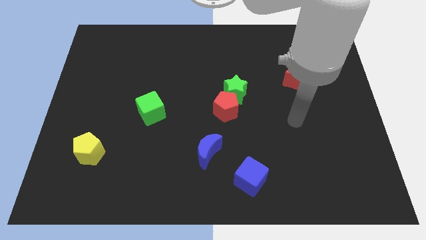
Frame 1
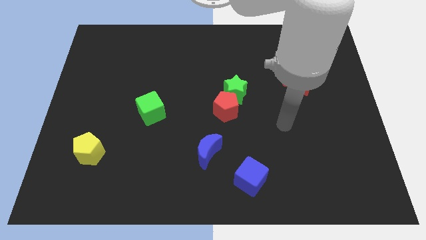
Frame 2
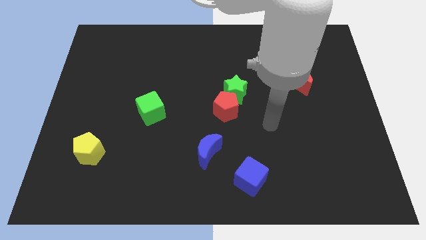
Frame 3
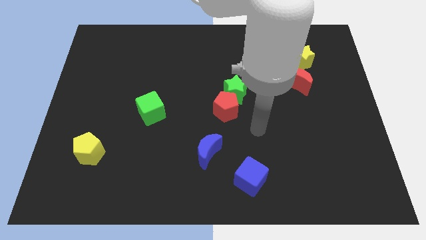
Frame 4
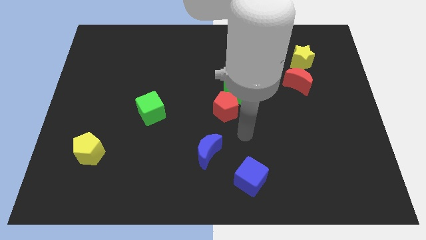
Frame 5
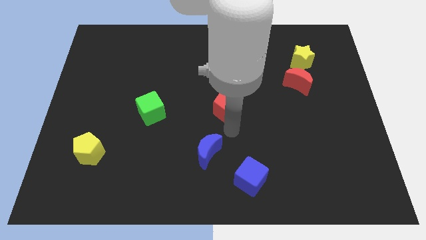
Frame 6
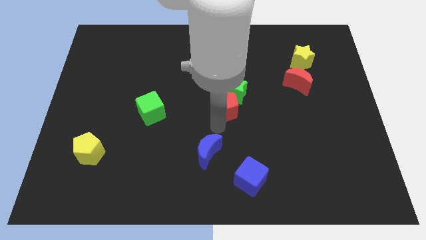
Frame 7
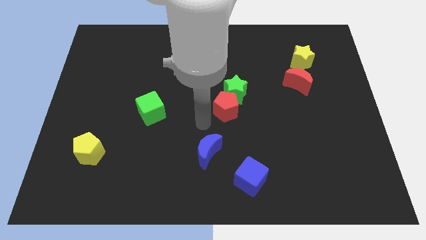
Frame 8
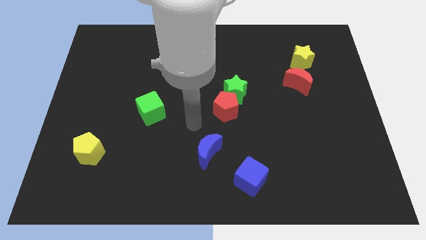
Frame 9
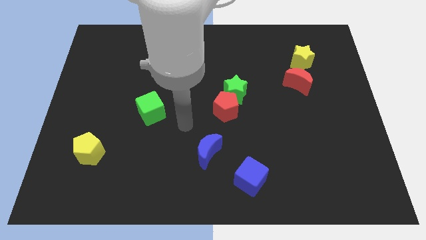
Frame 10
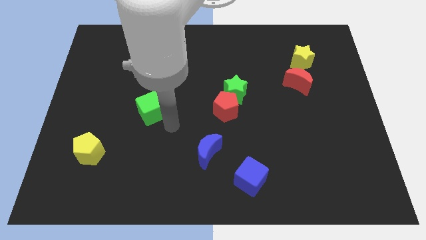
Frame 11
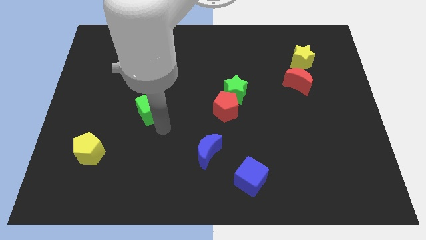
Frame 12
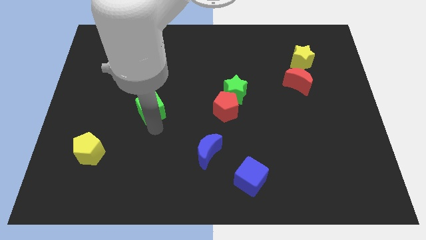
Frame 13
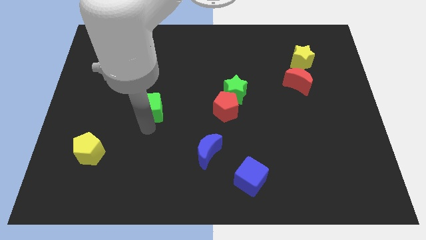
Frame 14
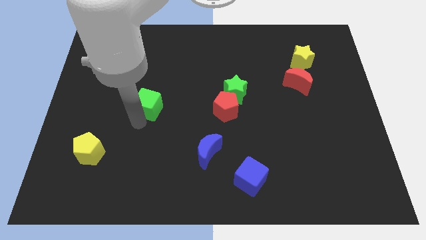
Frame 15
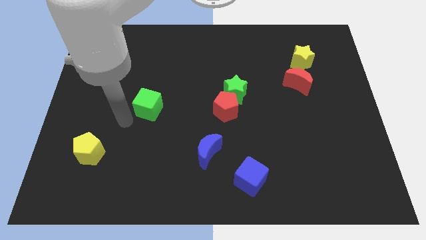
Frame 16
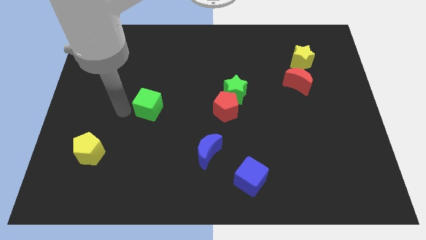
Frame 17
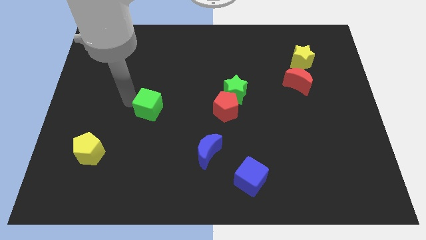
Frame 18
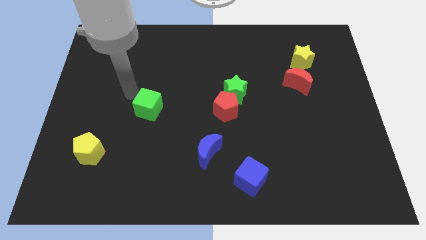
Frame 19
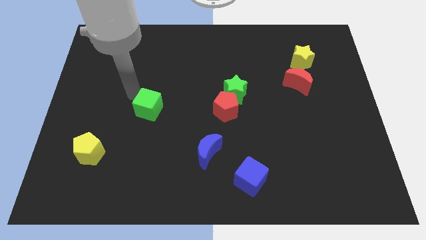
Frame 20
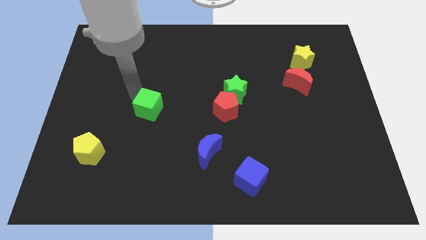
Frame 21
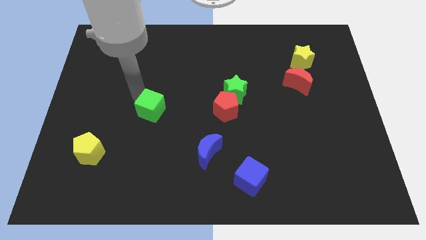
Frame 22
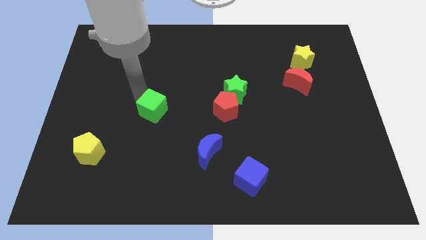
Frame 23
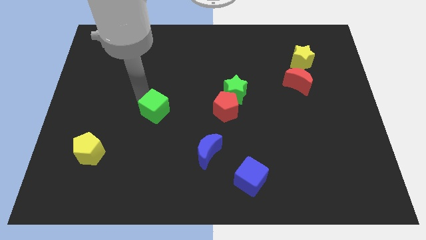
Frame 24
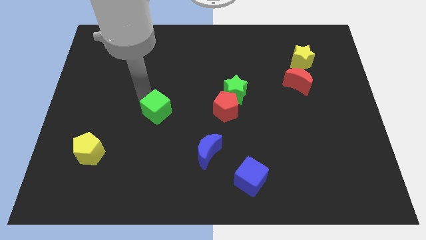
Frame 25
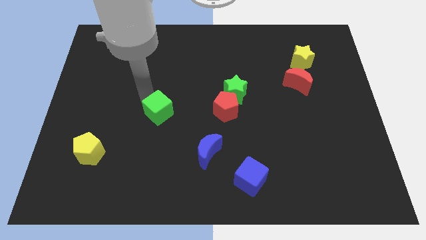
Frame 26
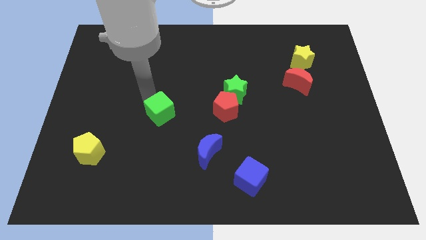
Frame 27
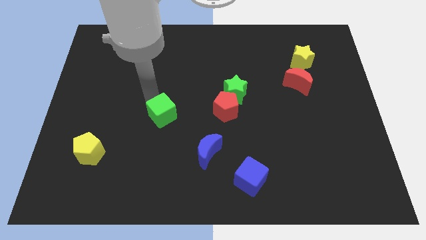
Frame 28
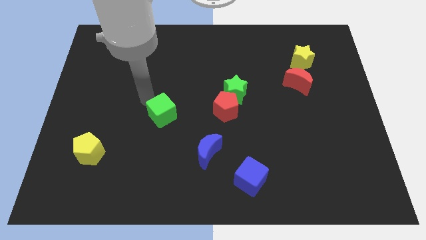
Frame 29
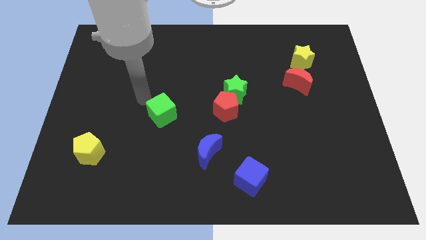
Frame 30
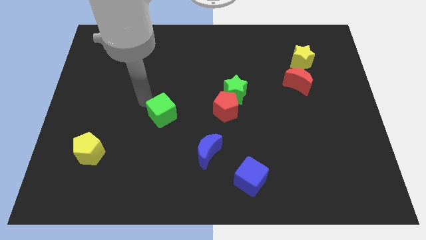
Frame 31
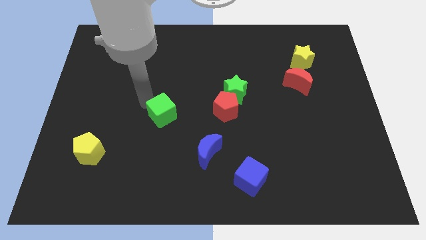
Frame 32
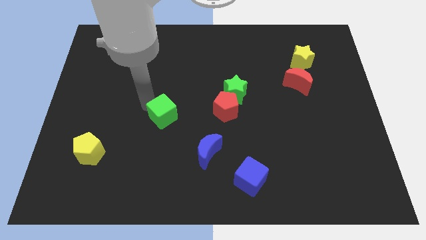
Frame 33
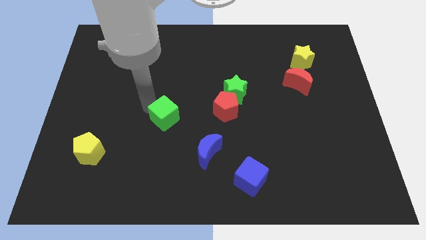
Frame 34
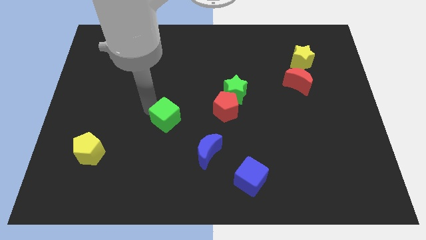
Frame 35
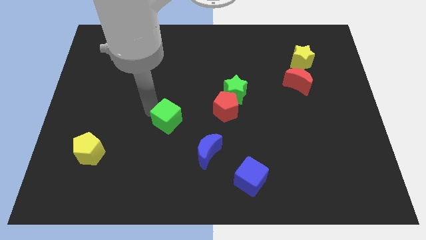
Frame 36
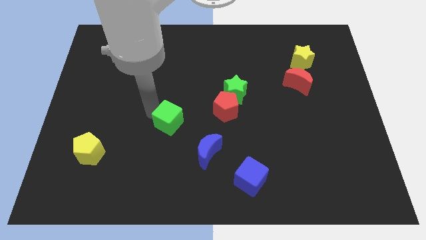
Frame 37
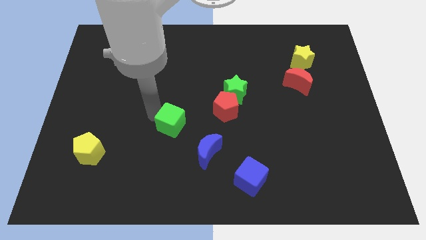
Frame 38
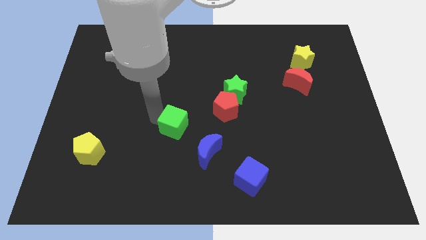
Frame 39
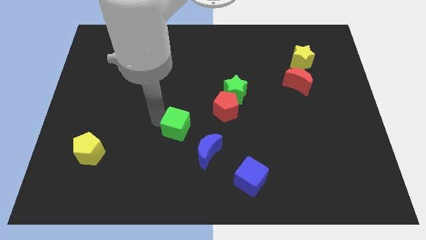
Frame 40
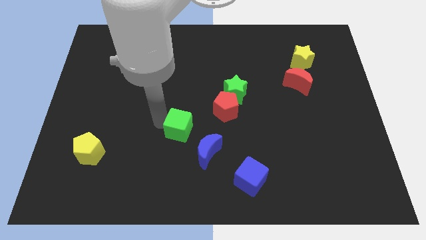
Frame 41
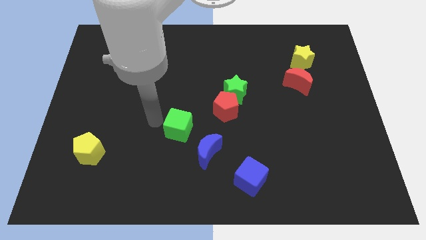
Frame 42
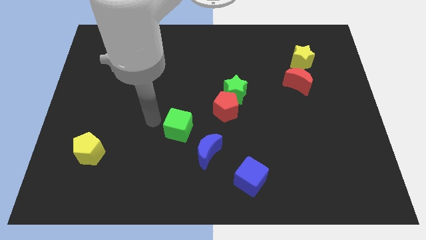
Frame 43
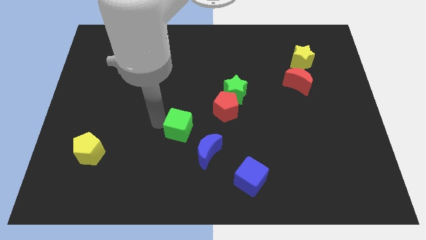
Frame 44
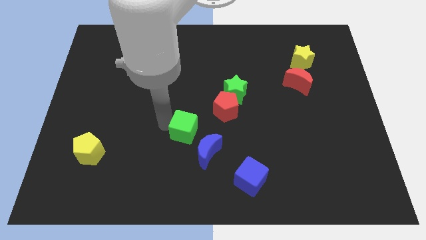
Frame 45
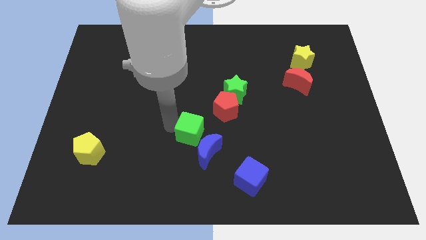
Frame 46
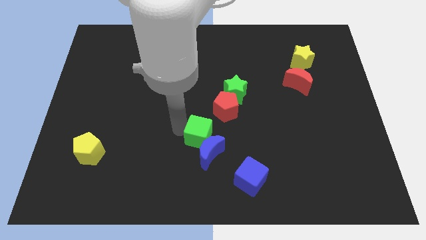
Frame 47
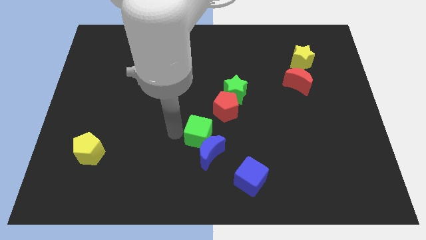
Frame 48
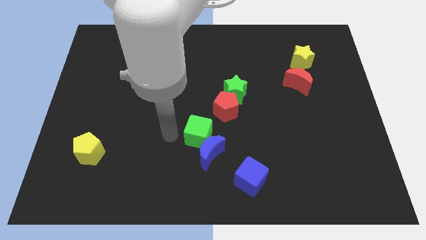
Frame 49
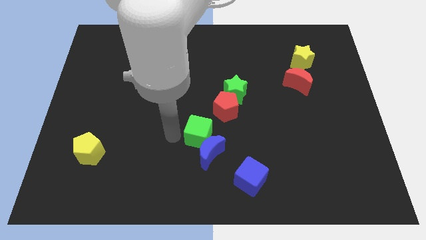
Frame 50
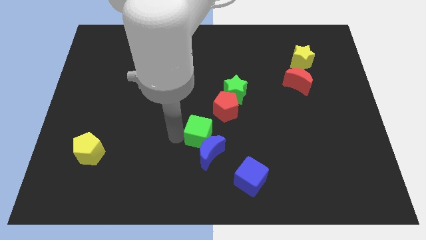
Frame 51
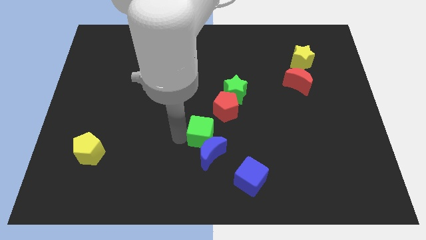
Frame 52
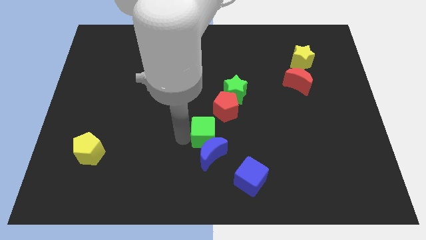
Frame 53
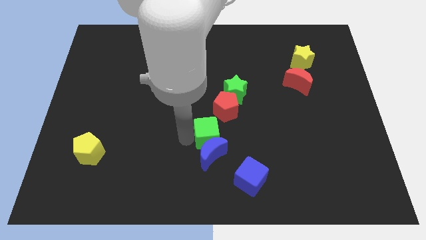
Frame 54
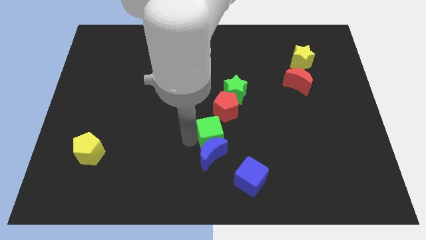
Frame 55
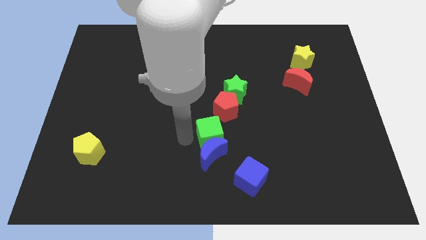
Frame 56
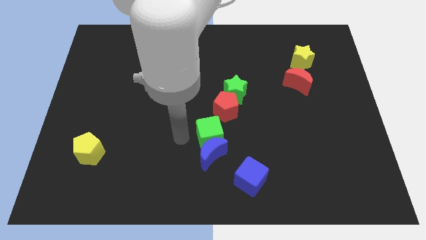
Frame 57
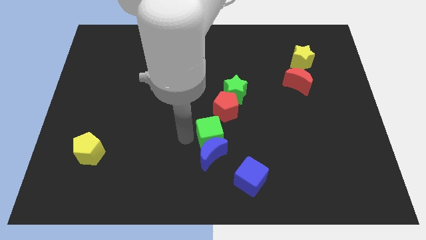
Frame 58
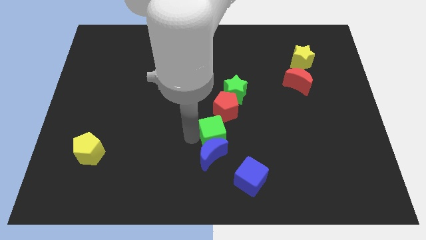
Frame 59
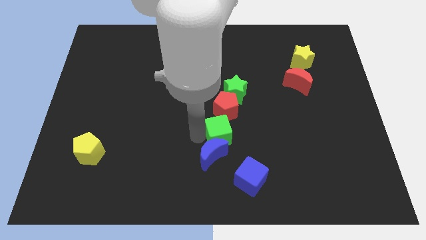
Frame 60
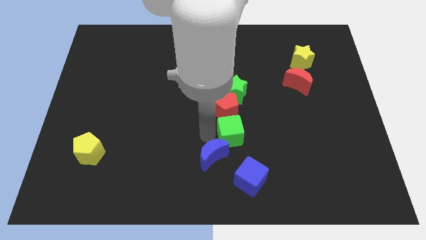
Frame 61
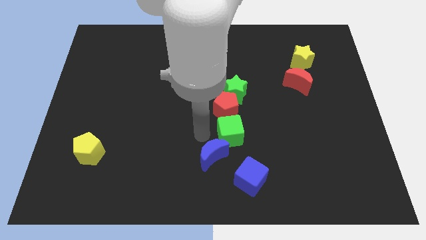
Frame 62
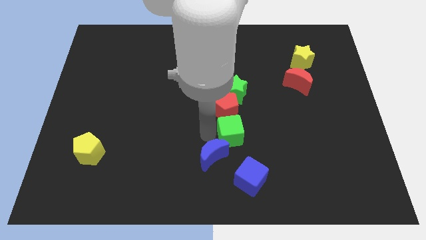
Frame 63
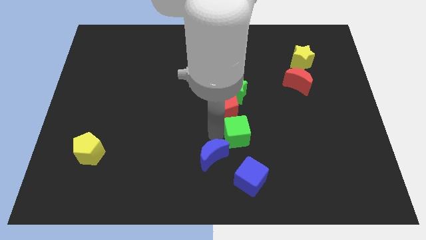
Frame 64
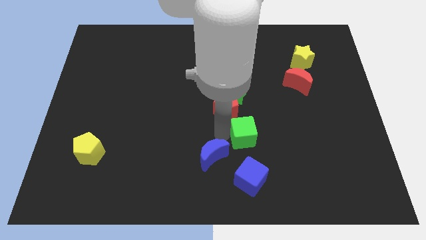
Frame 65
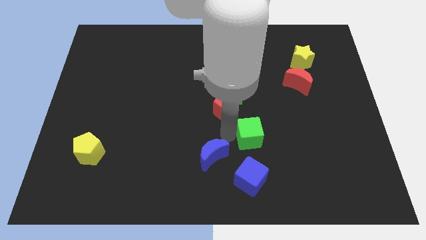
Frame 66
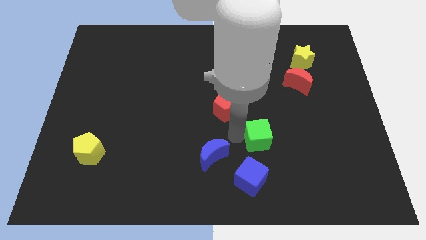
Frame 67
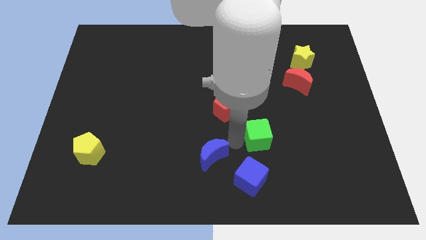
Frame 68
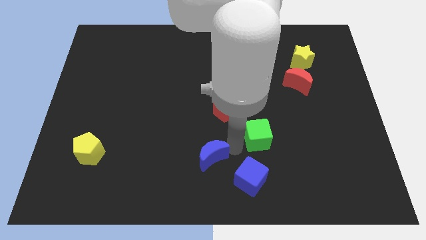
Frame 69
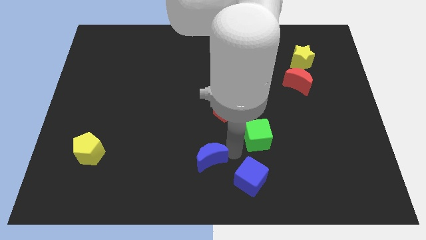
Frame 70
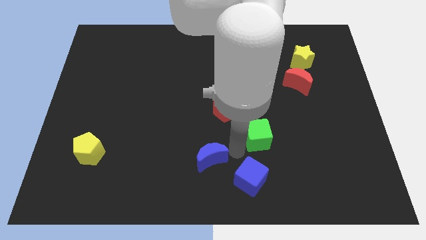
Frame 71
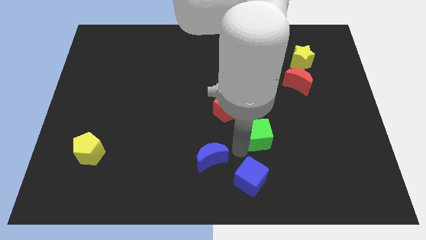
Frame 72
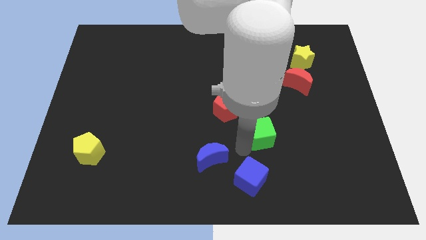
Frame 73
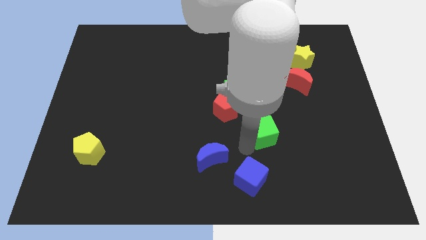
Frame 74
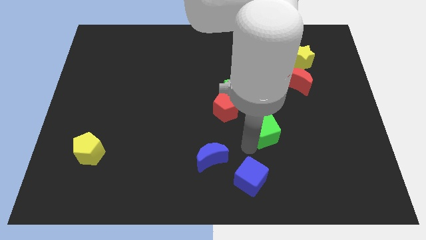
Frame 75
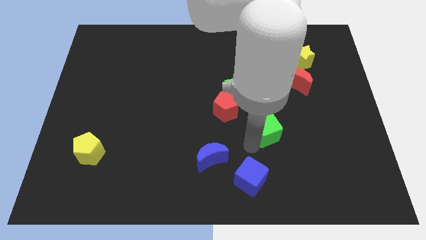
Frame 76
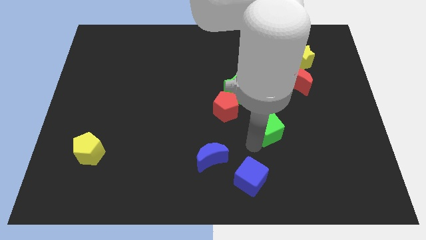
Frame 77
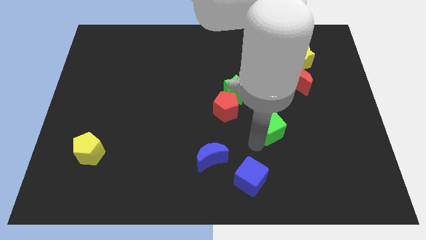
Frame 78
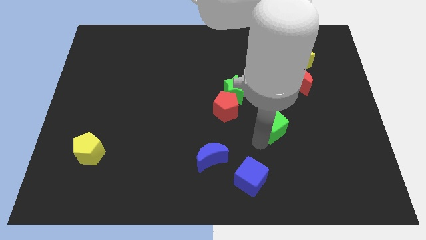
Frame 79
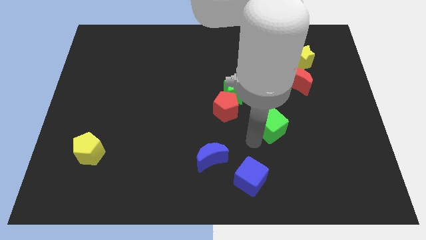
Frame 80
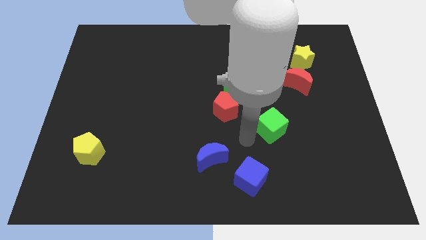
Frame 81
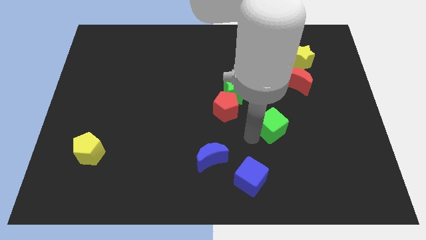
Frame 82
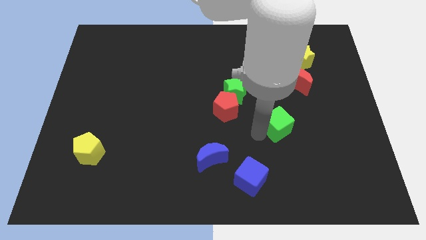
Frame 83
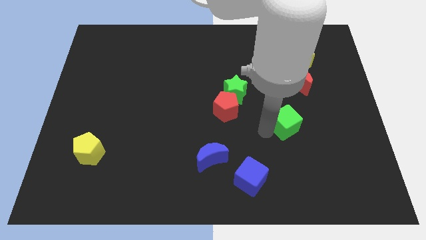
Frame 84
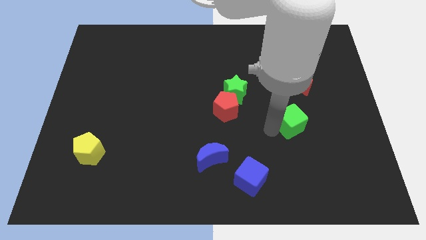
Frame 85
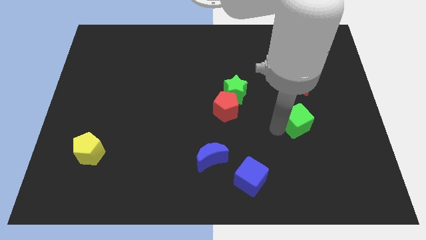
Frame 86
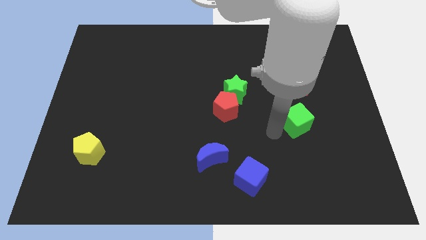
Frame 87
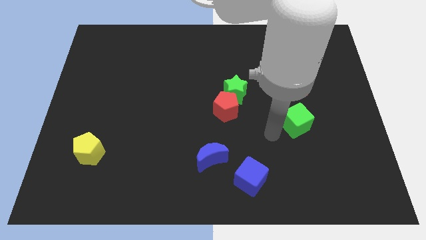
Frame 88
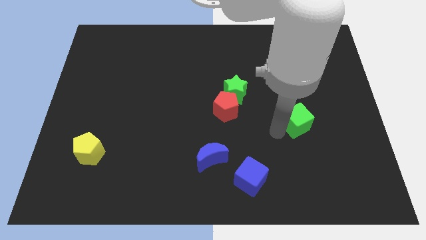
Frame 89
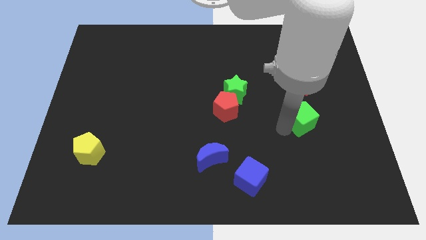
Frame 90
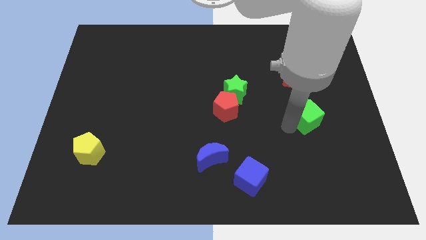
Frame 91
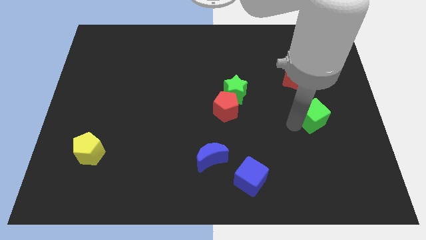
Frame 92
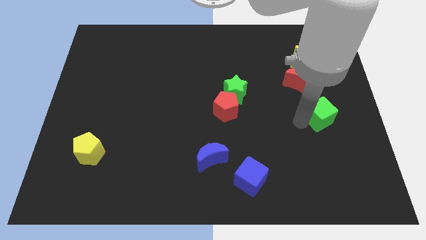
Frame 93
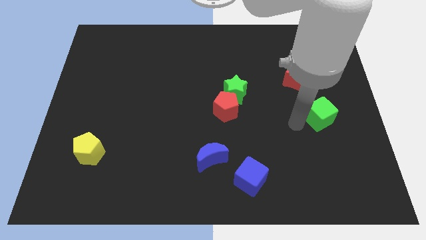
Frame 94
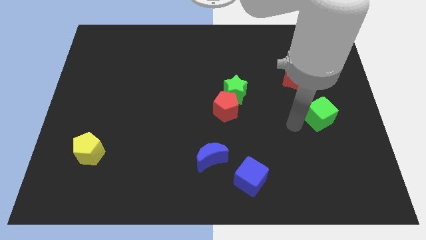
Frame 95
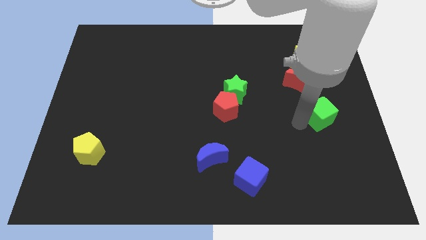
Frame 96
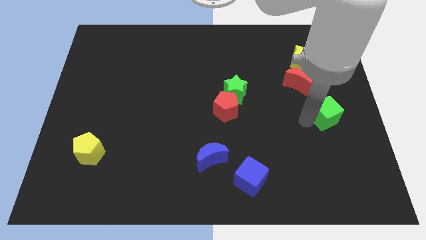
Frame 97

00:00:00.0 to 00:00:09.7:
push the green cube to the right side of the board
